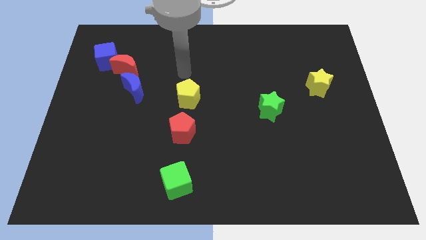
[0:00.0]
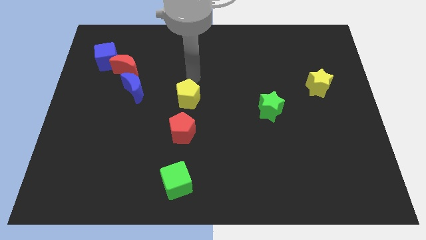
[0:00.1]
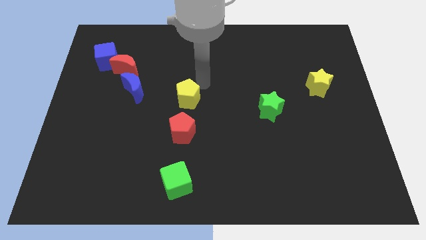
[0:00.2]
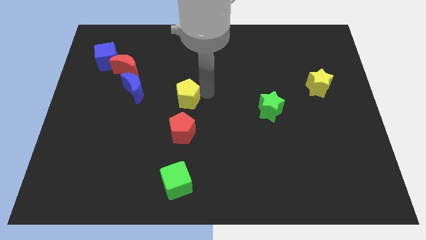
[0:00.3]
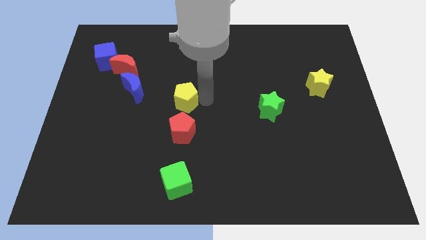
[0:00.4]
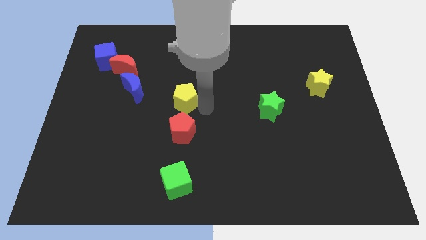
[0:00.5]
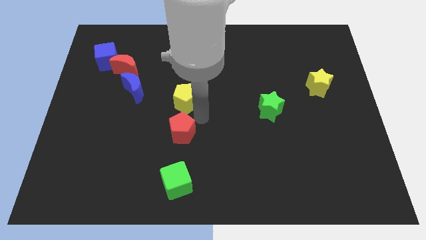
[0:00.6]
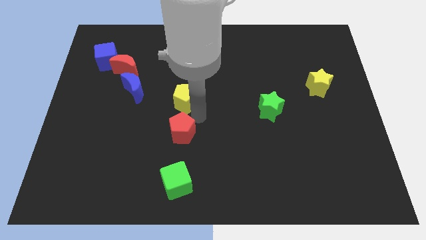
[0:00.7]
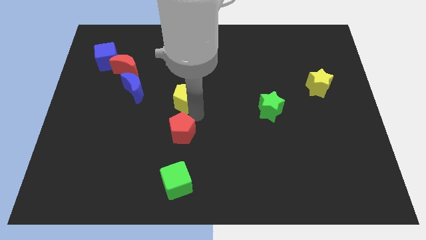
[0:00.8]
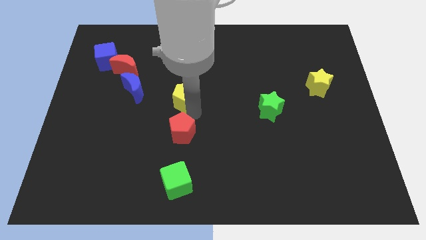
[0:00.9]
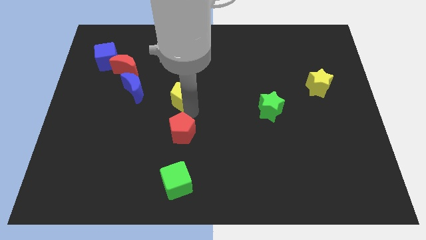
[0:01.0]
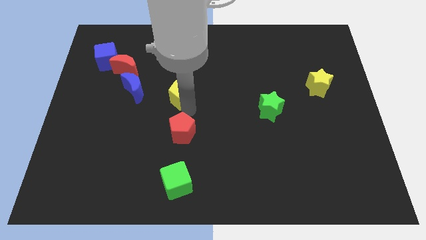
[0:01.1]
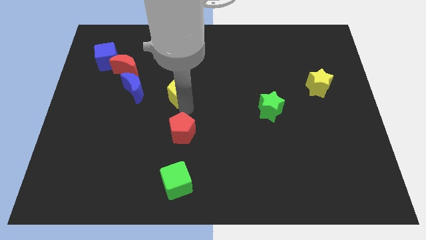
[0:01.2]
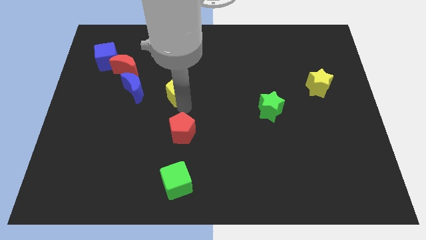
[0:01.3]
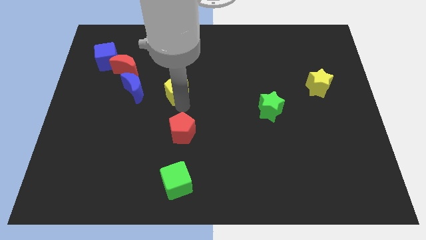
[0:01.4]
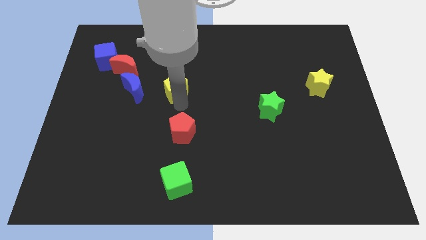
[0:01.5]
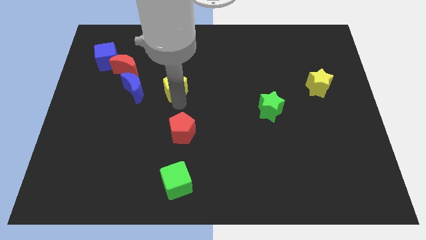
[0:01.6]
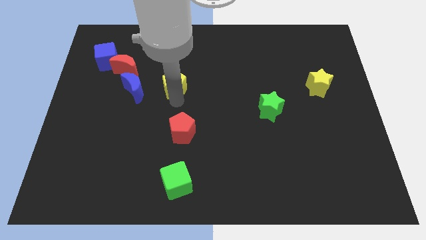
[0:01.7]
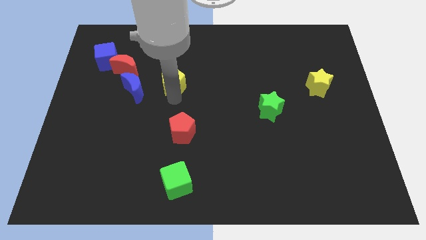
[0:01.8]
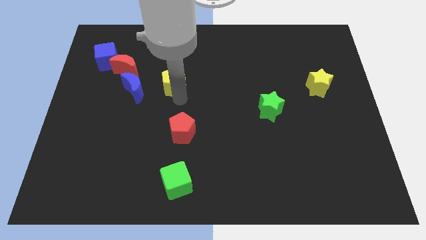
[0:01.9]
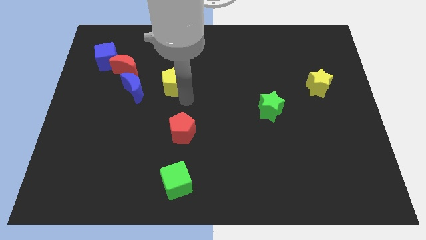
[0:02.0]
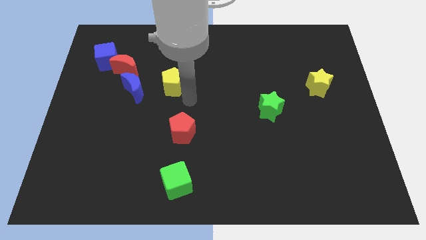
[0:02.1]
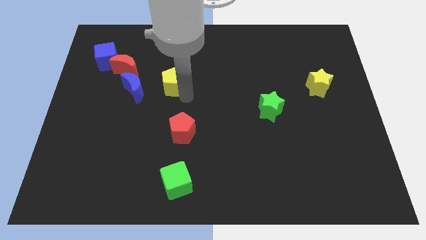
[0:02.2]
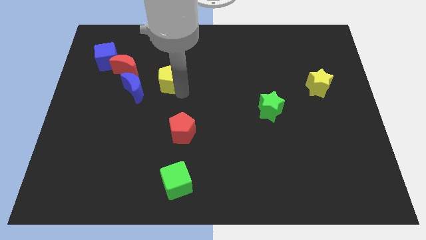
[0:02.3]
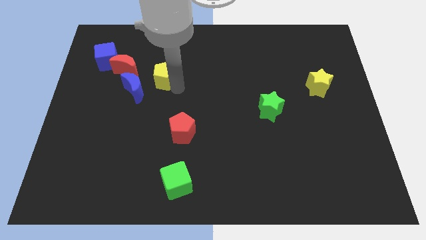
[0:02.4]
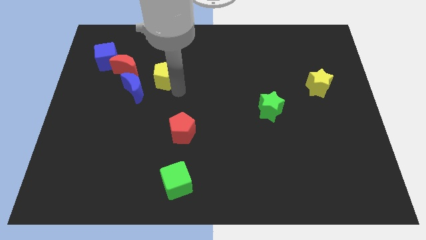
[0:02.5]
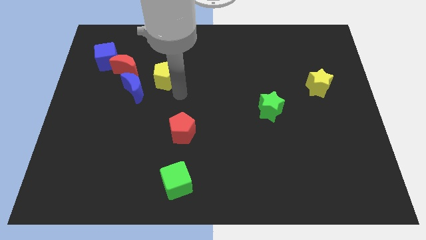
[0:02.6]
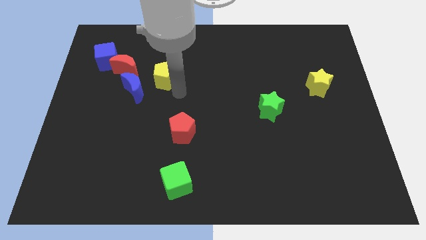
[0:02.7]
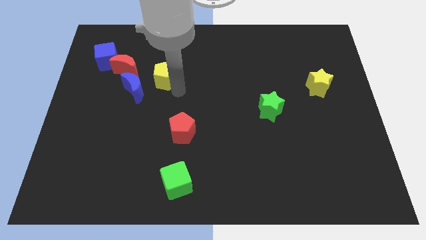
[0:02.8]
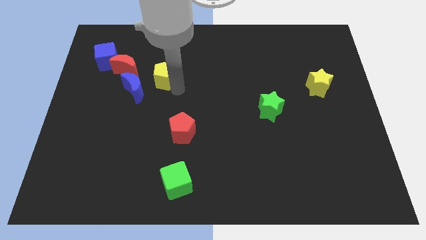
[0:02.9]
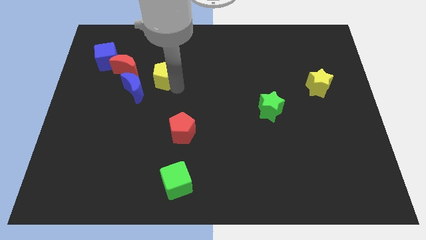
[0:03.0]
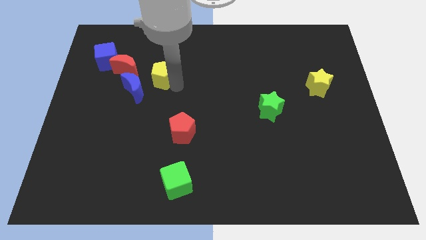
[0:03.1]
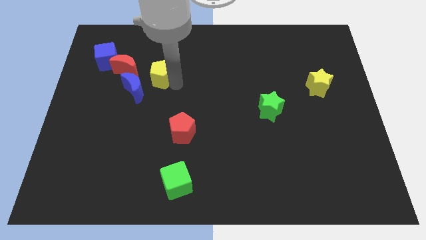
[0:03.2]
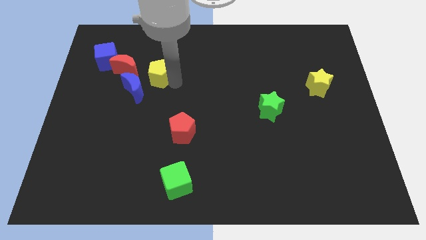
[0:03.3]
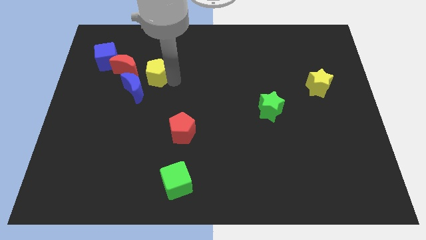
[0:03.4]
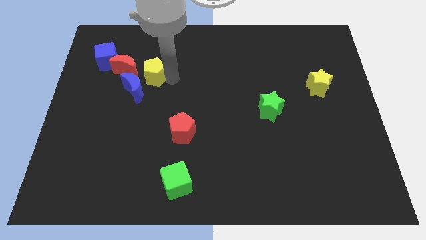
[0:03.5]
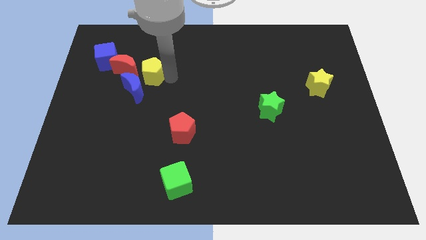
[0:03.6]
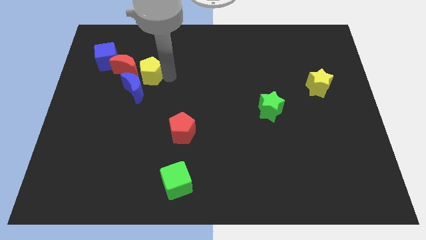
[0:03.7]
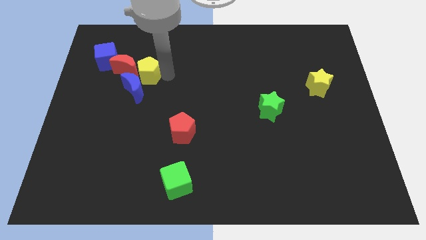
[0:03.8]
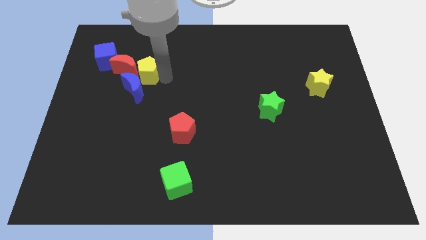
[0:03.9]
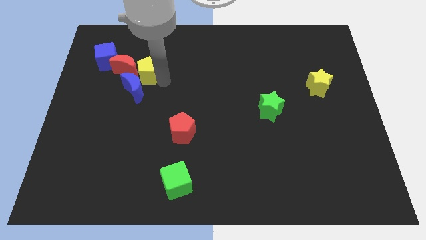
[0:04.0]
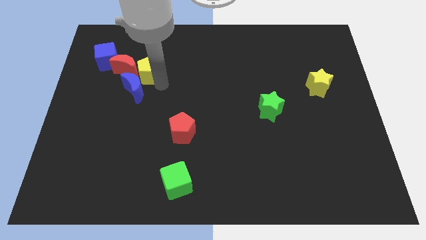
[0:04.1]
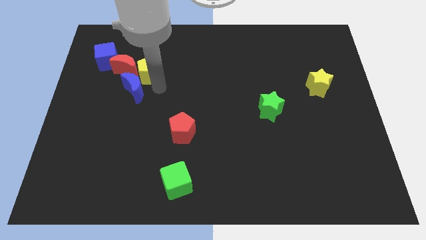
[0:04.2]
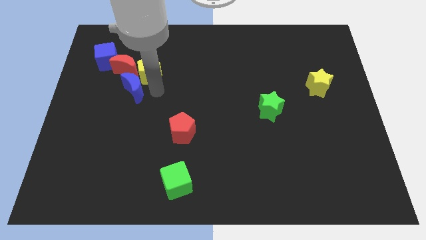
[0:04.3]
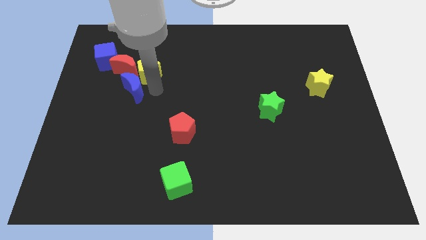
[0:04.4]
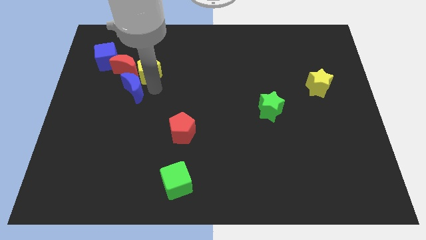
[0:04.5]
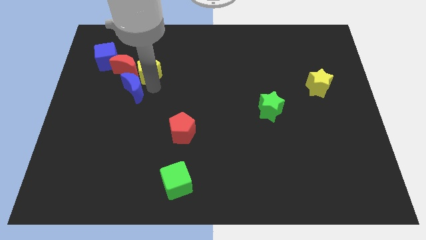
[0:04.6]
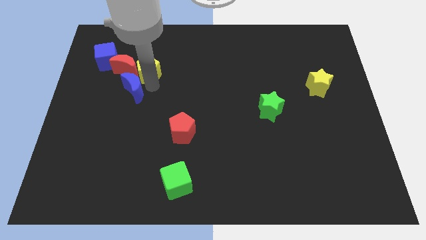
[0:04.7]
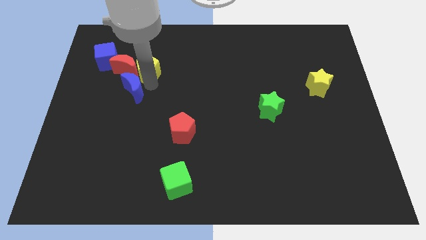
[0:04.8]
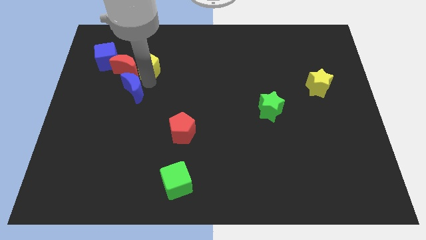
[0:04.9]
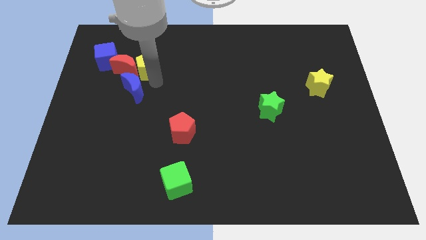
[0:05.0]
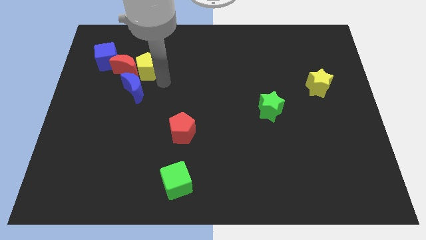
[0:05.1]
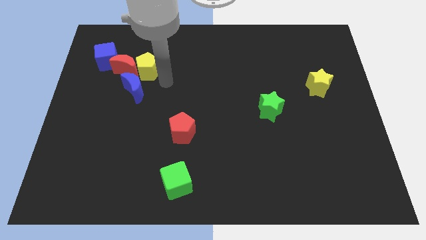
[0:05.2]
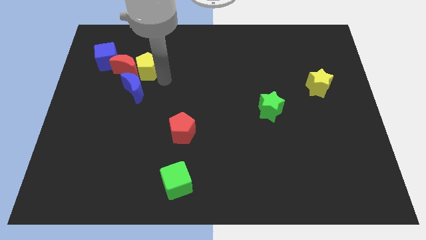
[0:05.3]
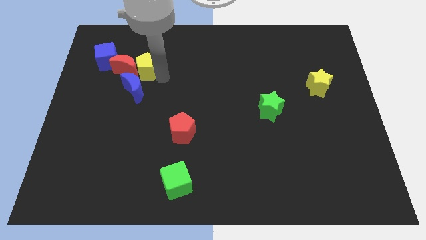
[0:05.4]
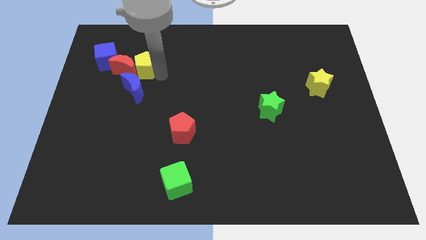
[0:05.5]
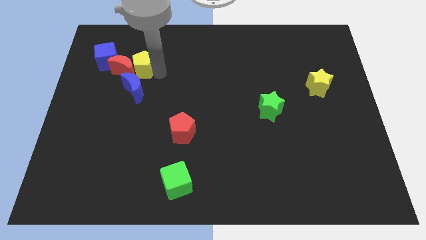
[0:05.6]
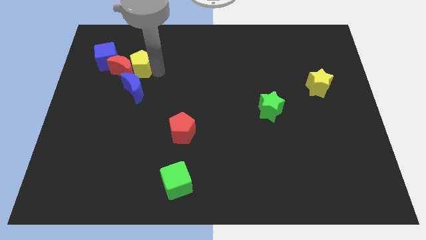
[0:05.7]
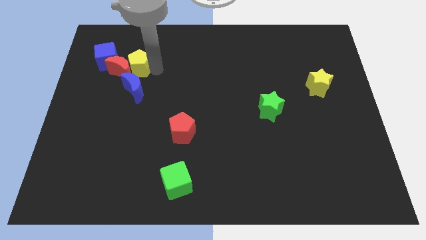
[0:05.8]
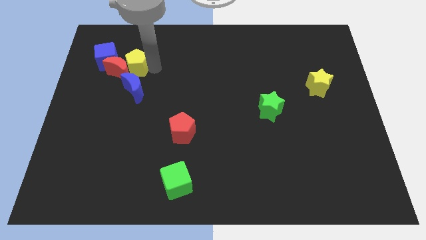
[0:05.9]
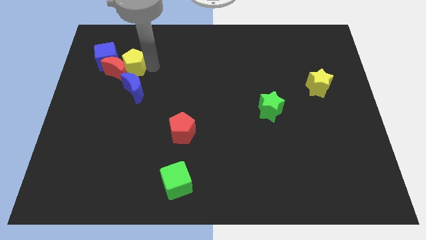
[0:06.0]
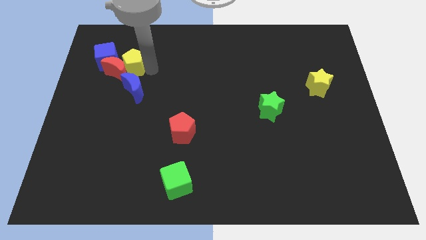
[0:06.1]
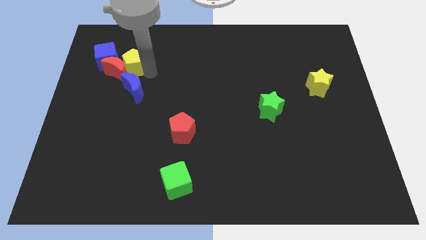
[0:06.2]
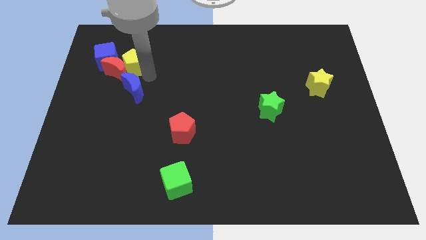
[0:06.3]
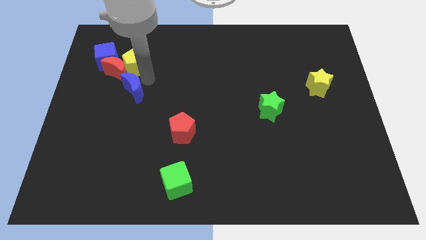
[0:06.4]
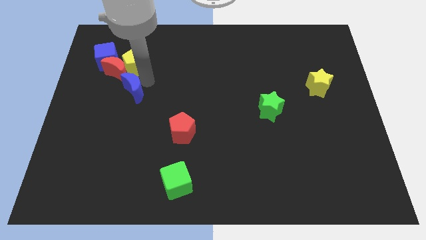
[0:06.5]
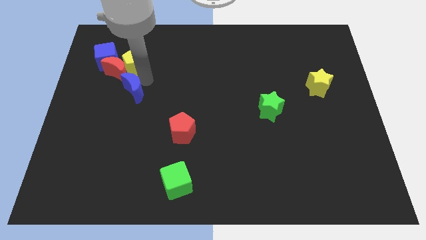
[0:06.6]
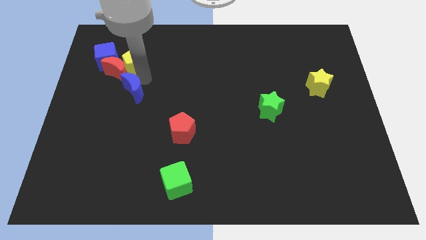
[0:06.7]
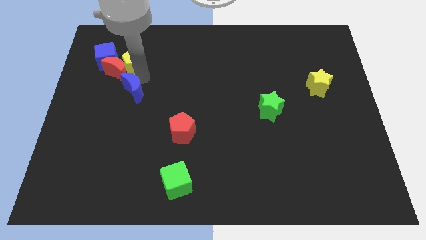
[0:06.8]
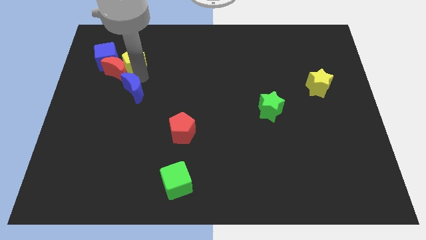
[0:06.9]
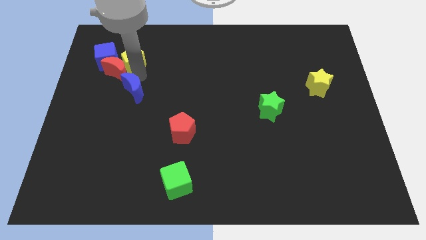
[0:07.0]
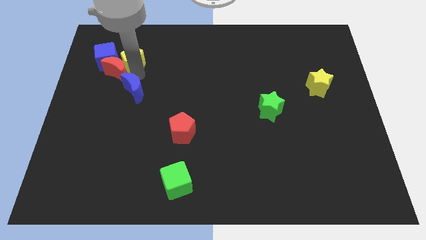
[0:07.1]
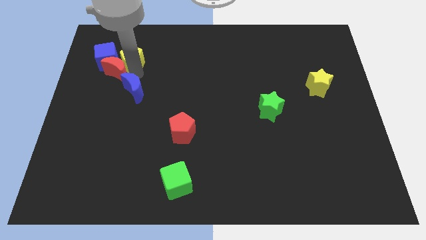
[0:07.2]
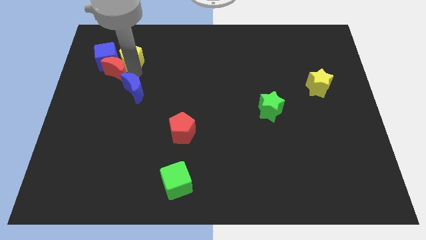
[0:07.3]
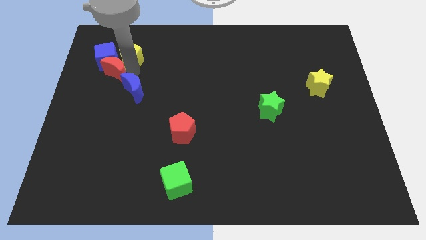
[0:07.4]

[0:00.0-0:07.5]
put the yellow pentagon to the blue cube

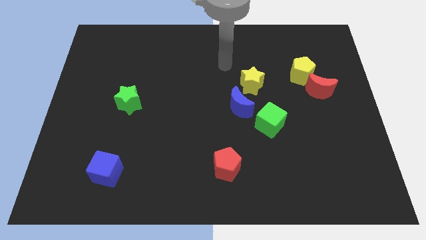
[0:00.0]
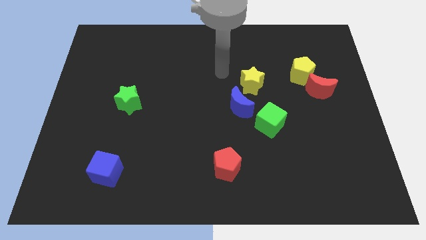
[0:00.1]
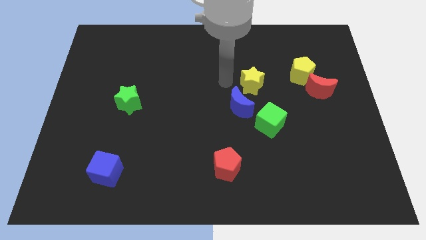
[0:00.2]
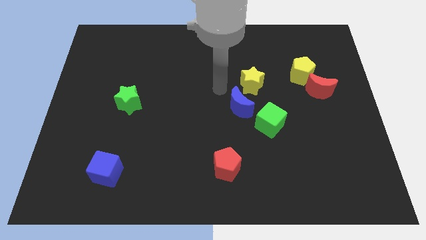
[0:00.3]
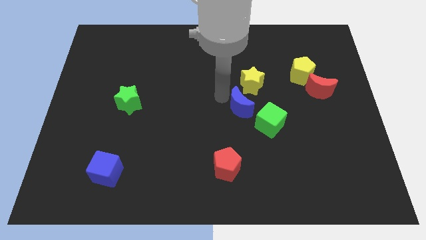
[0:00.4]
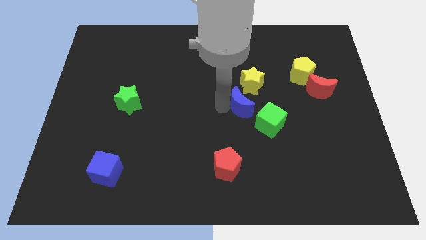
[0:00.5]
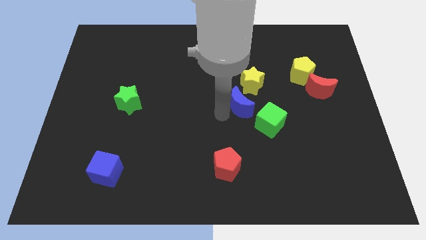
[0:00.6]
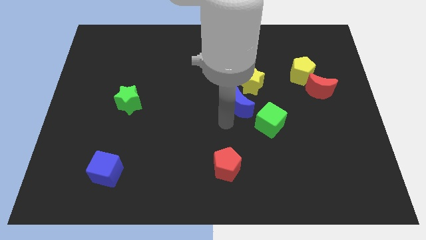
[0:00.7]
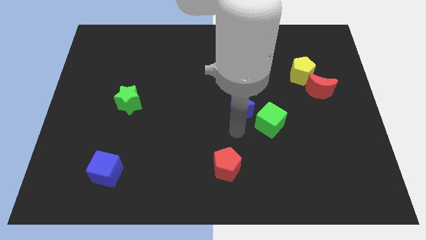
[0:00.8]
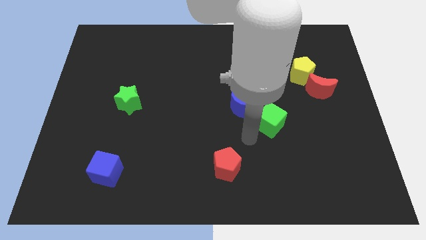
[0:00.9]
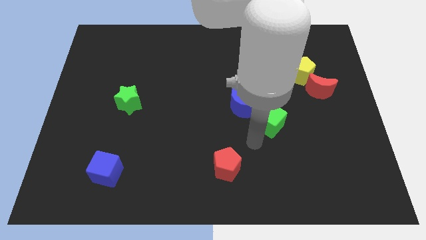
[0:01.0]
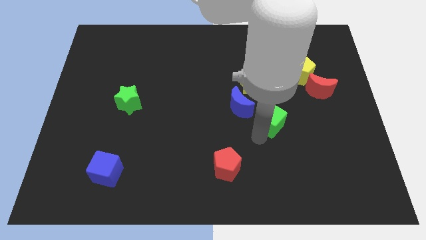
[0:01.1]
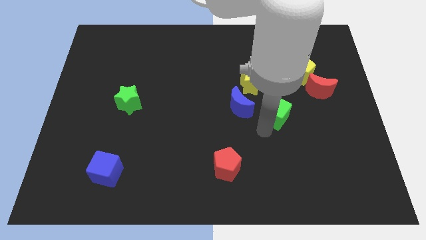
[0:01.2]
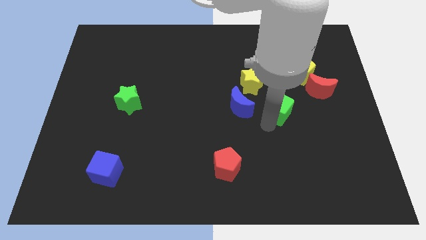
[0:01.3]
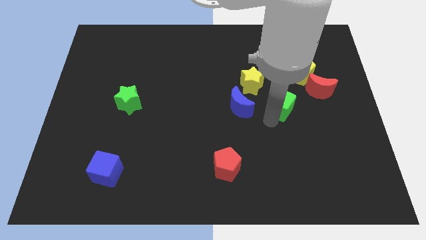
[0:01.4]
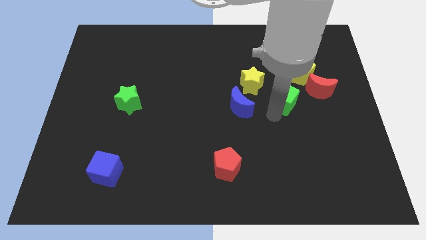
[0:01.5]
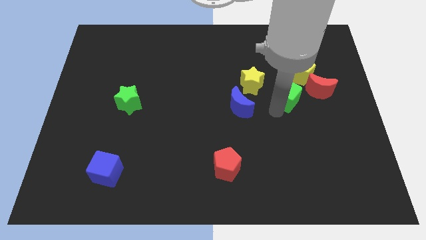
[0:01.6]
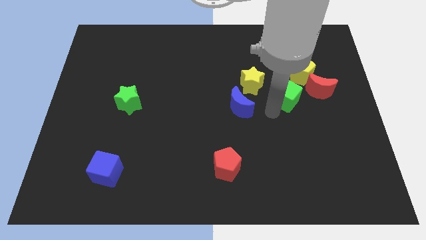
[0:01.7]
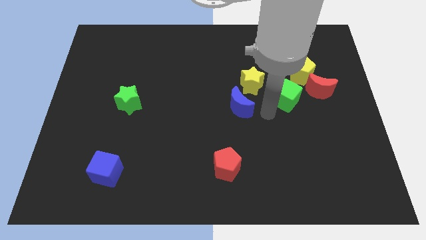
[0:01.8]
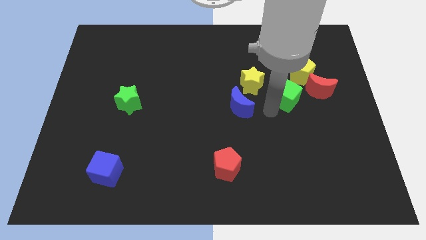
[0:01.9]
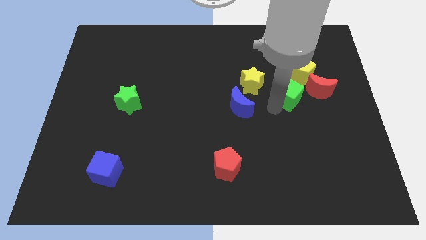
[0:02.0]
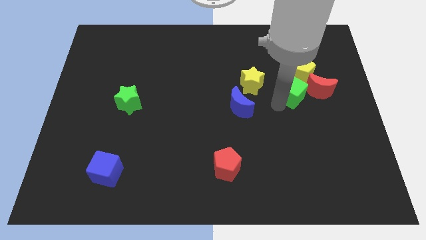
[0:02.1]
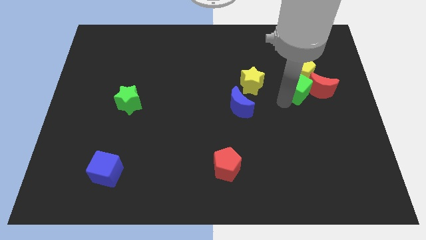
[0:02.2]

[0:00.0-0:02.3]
put the green cube towards the yellow pentagon
